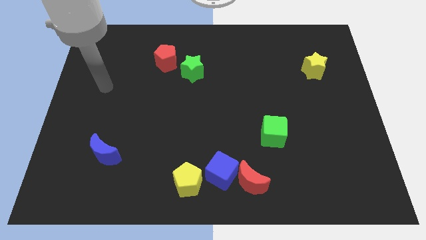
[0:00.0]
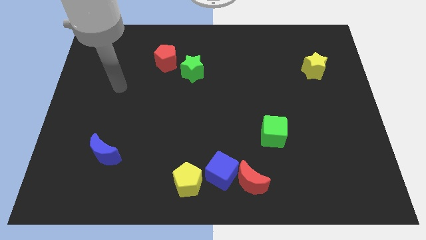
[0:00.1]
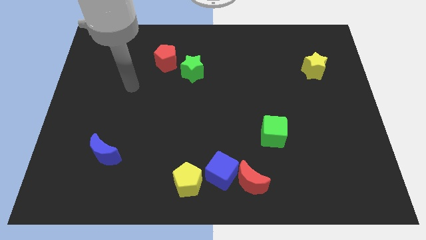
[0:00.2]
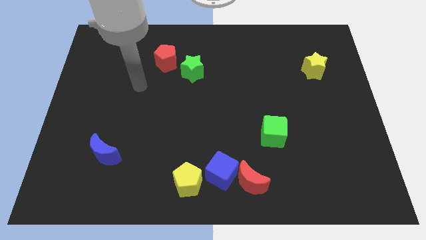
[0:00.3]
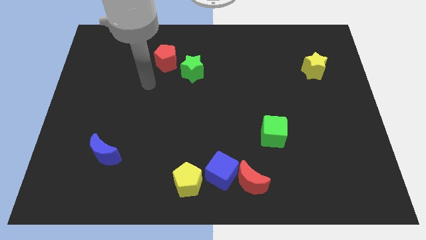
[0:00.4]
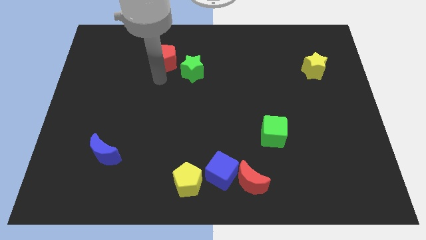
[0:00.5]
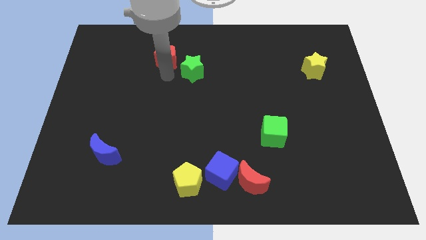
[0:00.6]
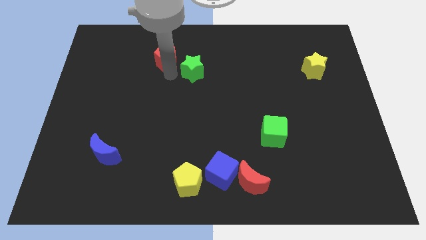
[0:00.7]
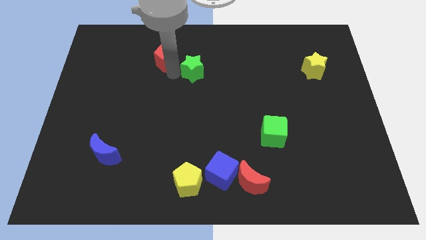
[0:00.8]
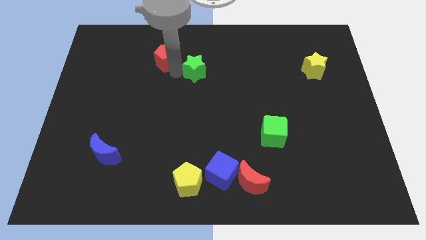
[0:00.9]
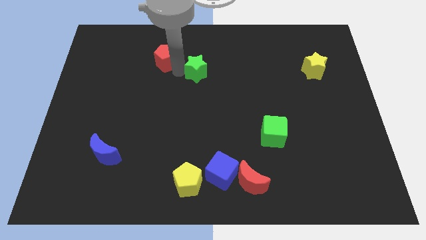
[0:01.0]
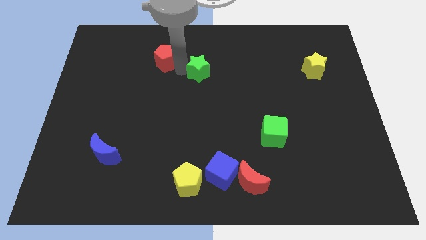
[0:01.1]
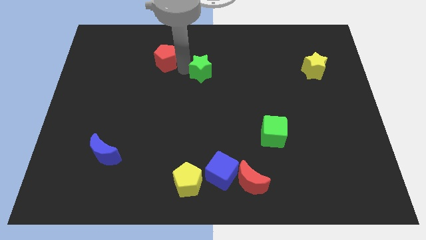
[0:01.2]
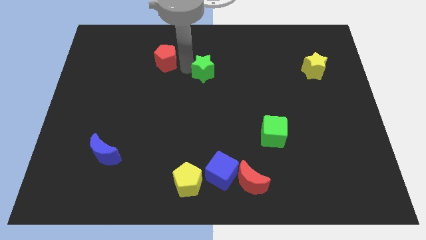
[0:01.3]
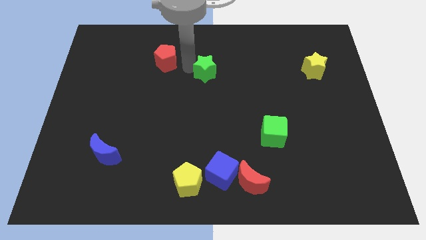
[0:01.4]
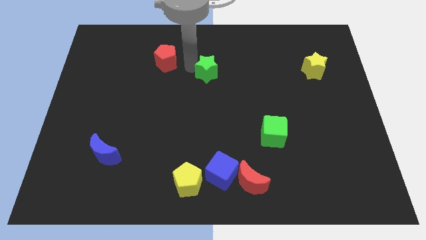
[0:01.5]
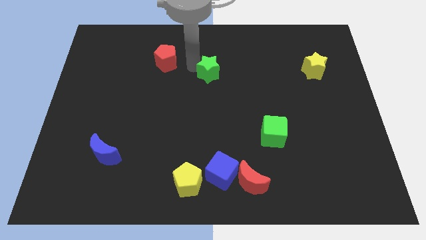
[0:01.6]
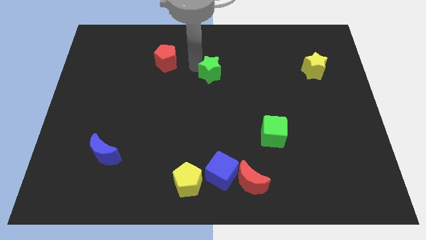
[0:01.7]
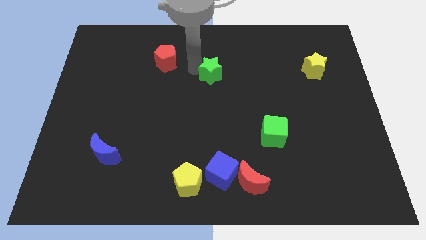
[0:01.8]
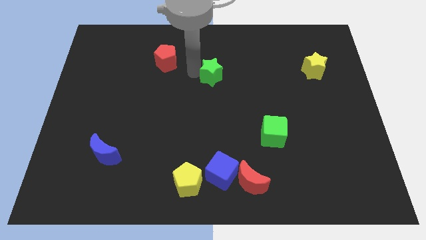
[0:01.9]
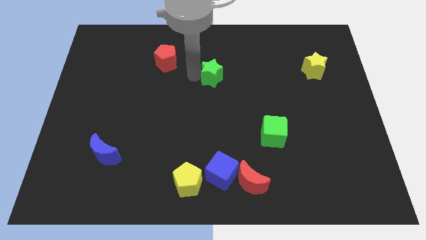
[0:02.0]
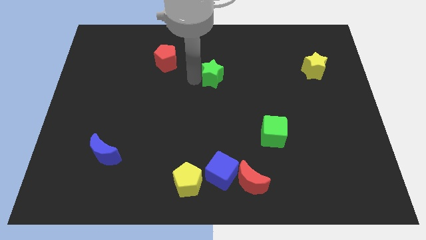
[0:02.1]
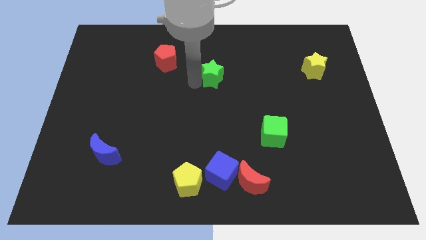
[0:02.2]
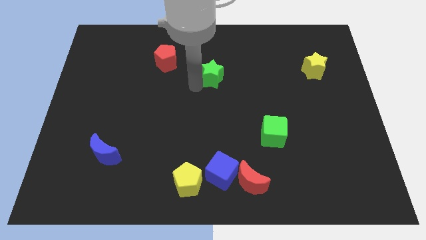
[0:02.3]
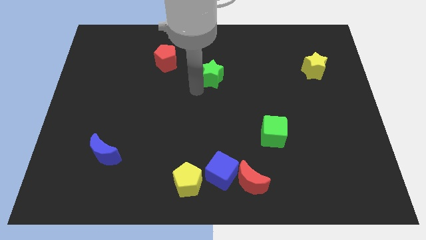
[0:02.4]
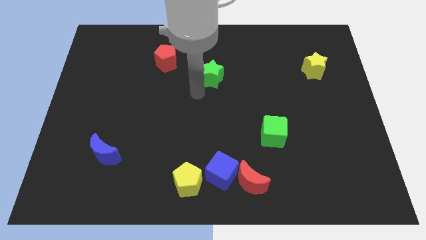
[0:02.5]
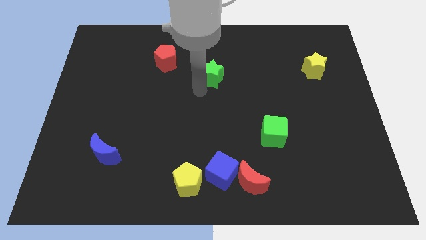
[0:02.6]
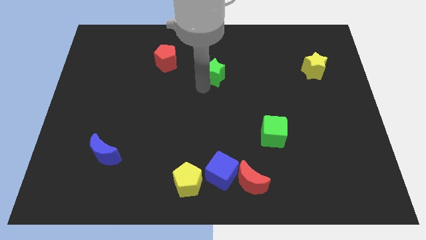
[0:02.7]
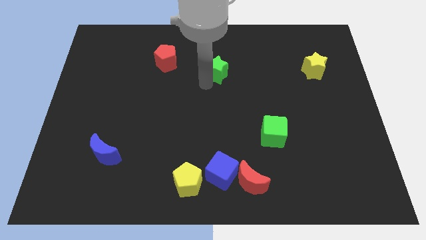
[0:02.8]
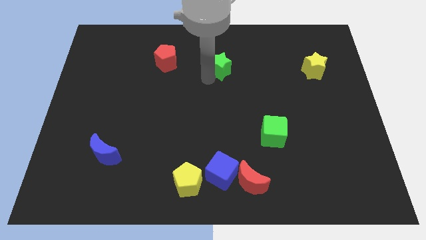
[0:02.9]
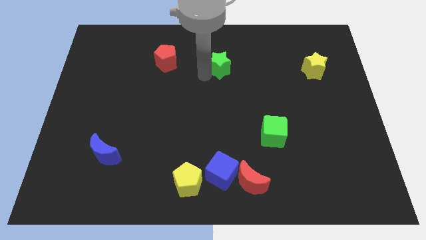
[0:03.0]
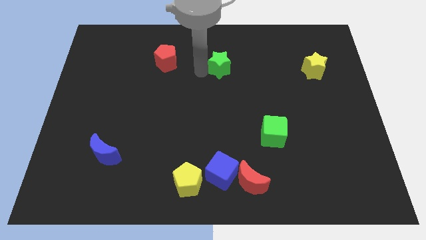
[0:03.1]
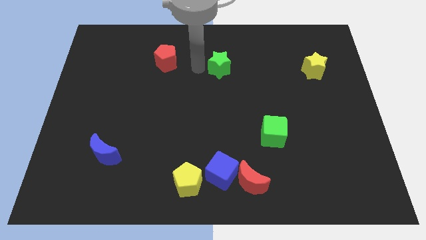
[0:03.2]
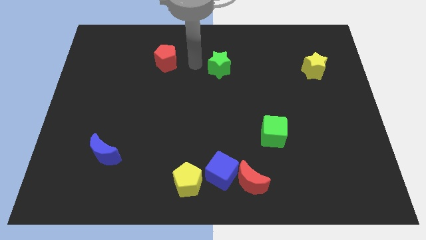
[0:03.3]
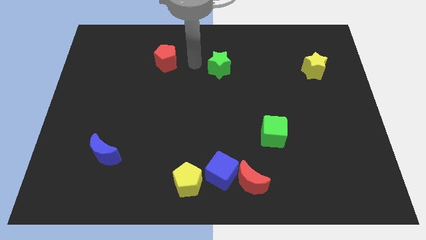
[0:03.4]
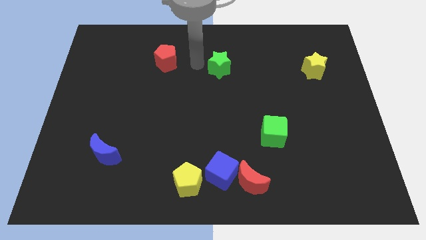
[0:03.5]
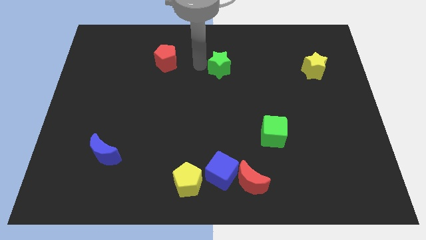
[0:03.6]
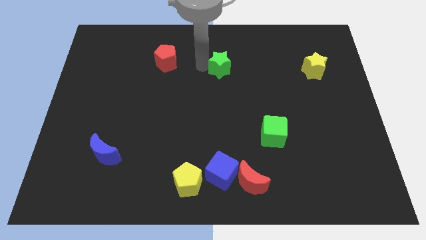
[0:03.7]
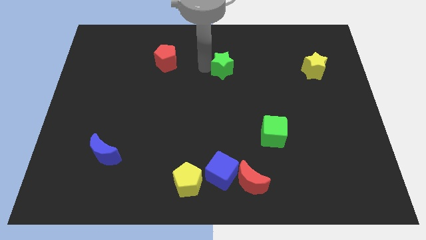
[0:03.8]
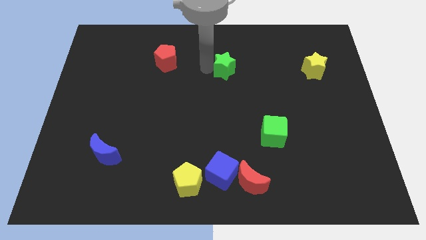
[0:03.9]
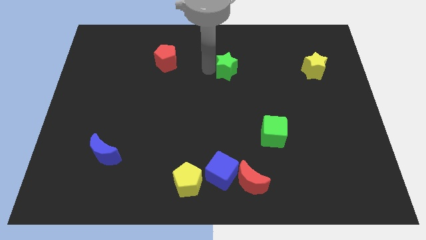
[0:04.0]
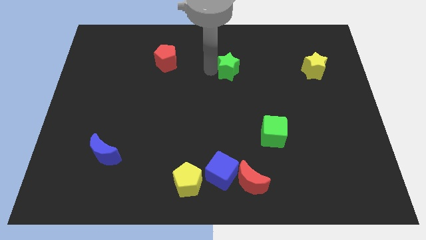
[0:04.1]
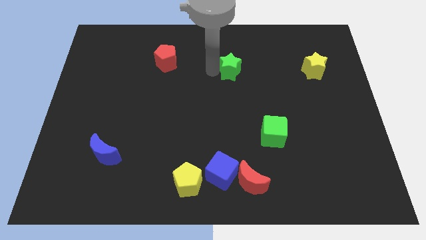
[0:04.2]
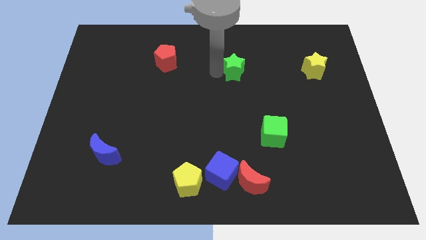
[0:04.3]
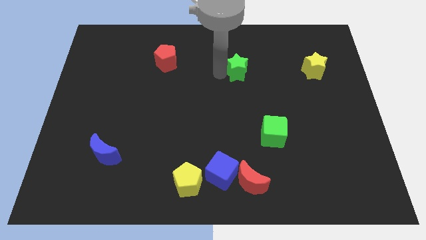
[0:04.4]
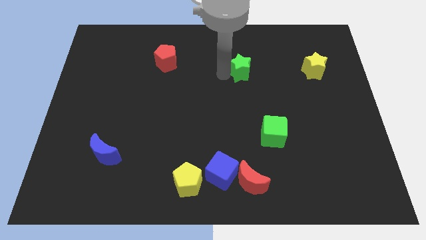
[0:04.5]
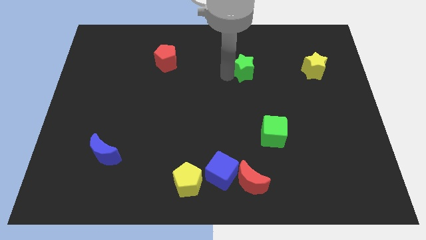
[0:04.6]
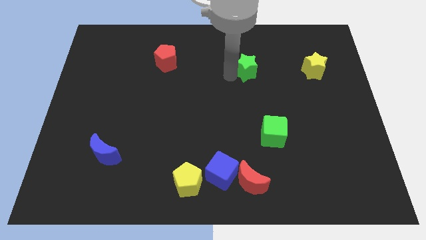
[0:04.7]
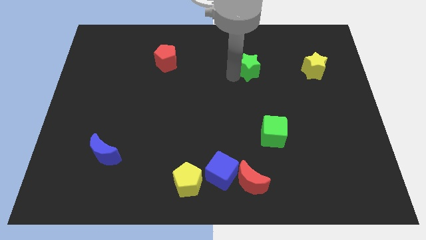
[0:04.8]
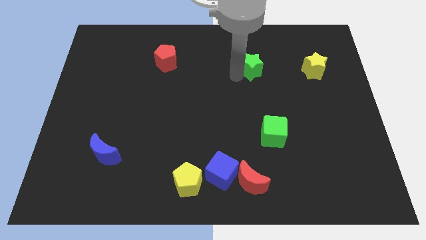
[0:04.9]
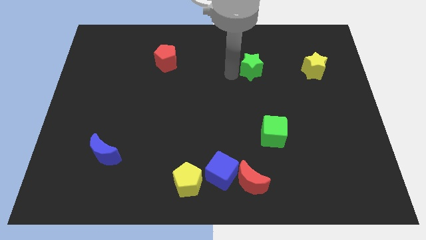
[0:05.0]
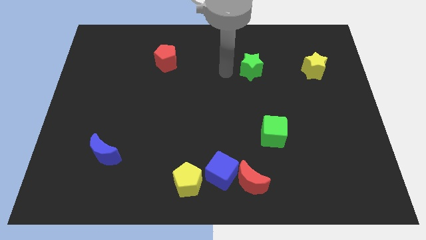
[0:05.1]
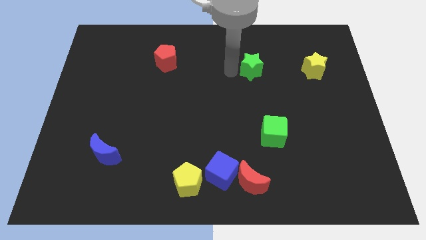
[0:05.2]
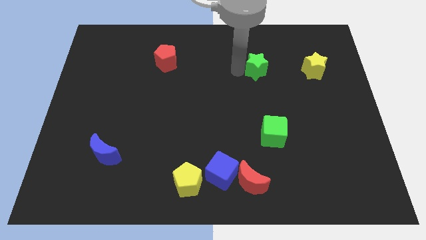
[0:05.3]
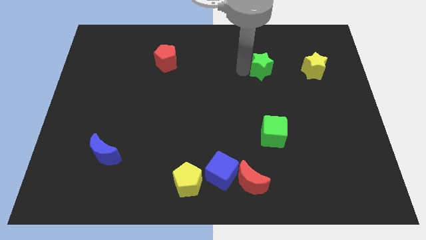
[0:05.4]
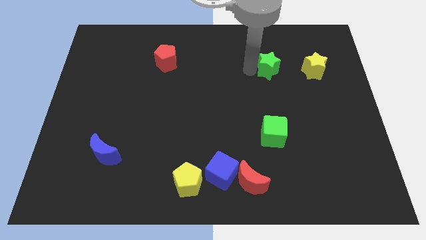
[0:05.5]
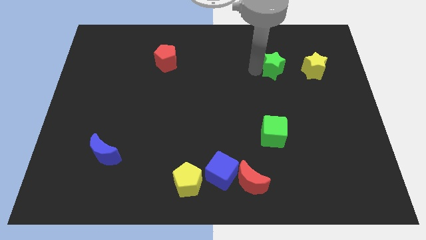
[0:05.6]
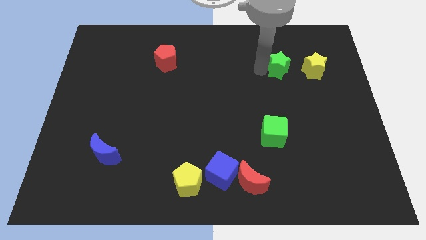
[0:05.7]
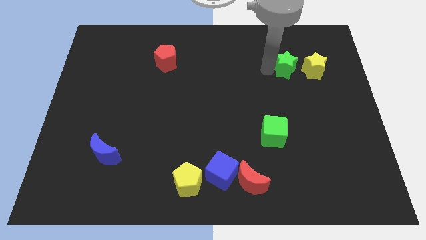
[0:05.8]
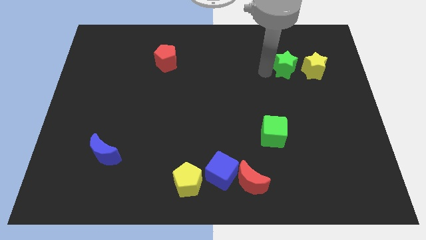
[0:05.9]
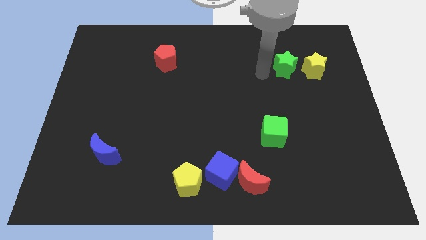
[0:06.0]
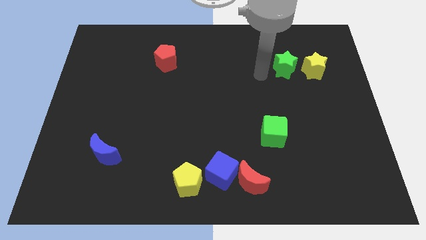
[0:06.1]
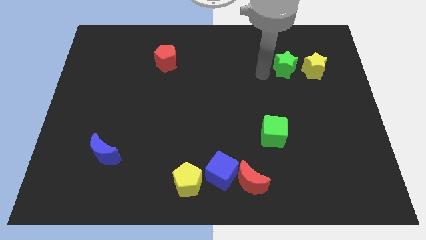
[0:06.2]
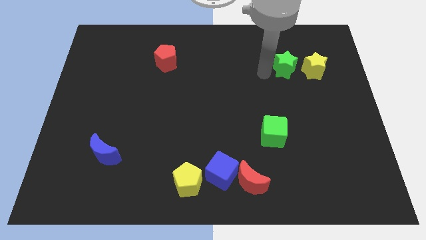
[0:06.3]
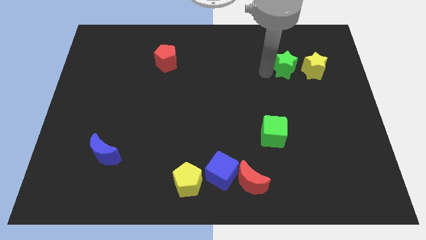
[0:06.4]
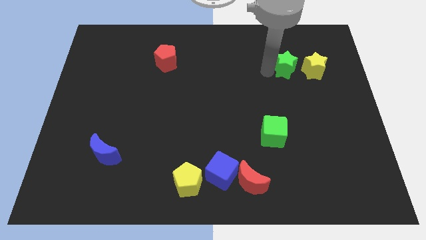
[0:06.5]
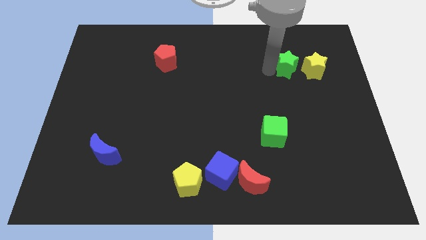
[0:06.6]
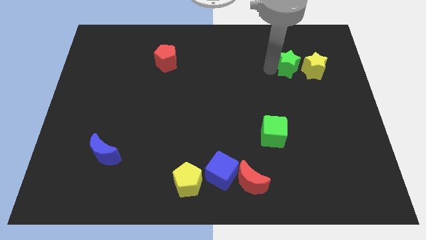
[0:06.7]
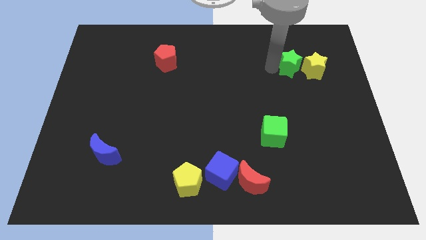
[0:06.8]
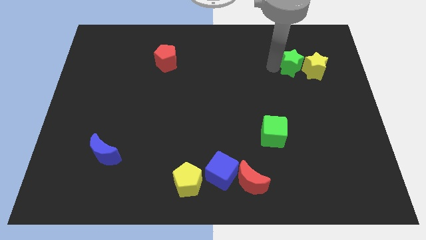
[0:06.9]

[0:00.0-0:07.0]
put the green star next to the yellow star

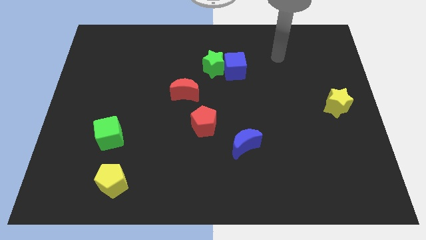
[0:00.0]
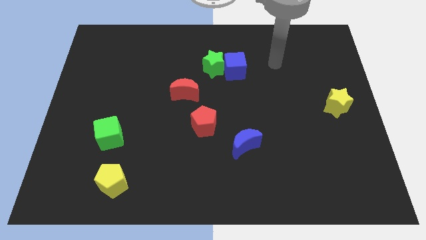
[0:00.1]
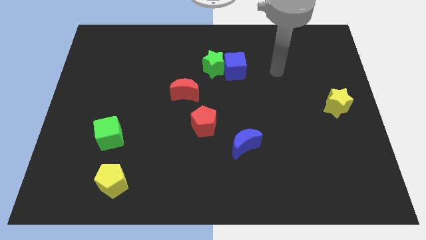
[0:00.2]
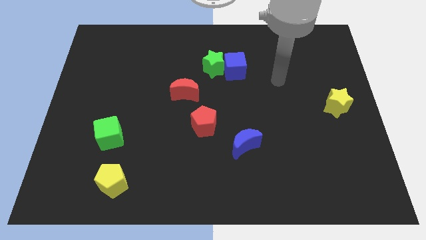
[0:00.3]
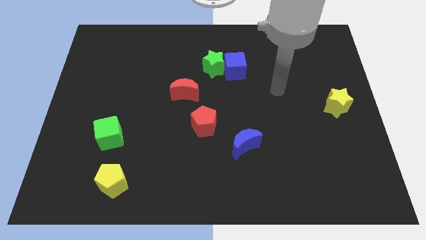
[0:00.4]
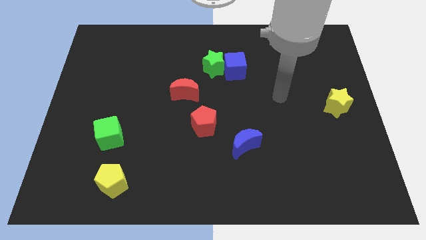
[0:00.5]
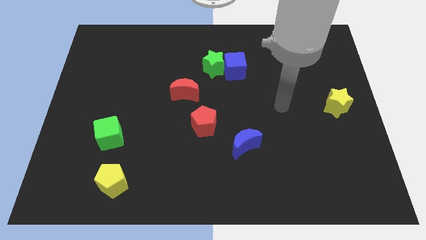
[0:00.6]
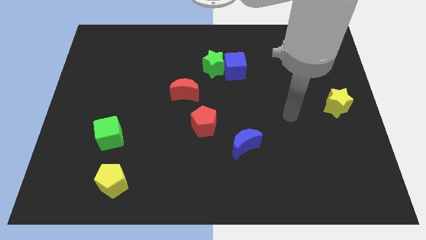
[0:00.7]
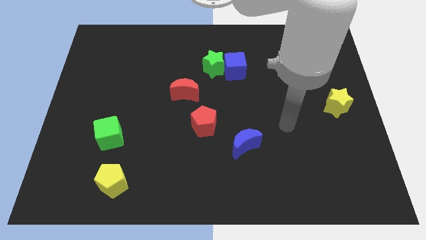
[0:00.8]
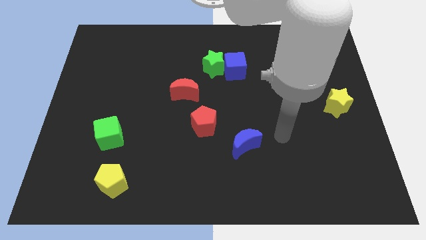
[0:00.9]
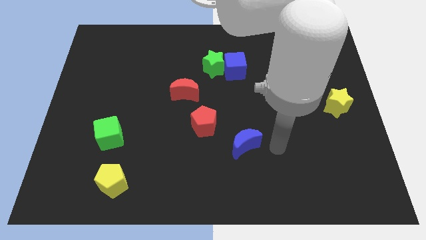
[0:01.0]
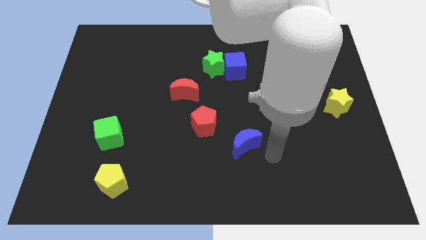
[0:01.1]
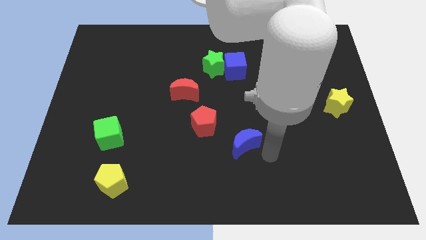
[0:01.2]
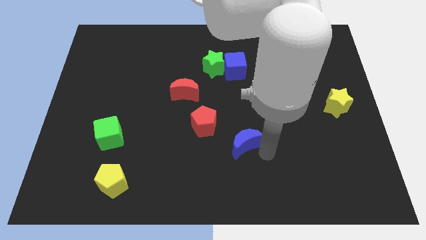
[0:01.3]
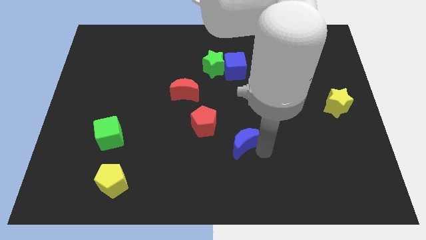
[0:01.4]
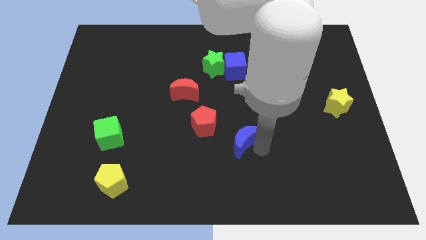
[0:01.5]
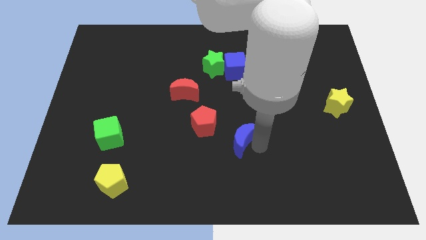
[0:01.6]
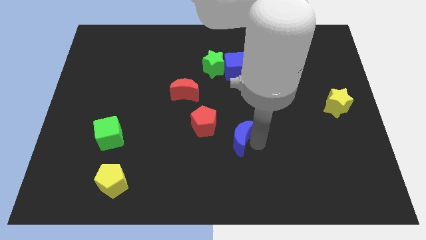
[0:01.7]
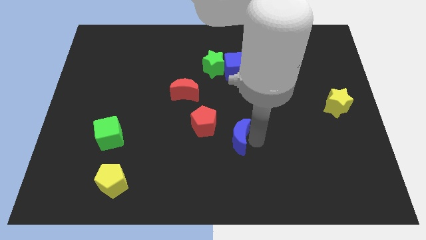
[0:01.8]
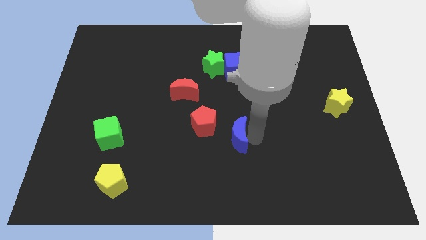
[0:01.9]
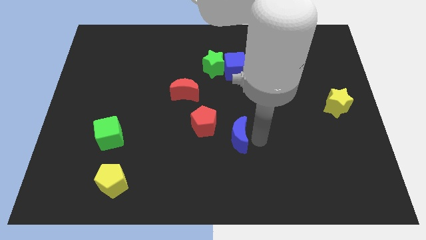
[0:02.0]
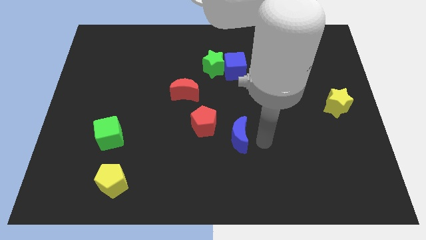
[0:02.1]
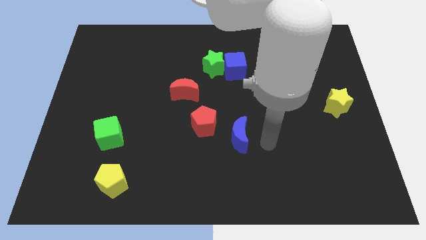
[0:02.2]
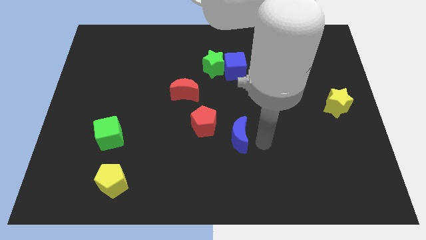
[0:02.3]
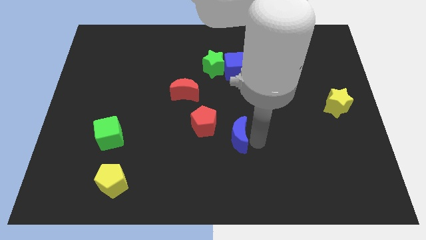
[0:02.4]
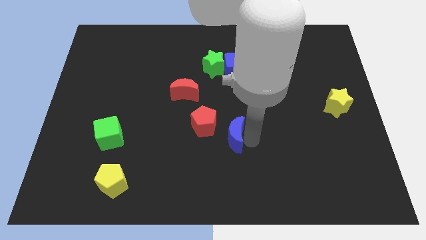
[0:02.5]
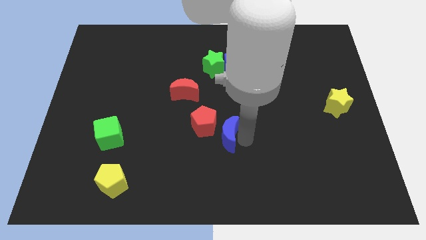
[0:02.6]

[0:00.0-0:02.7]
move the blue moon to the red pentagon
